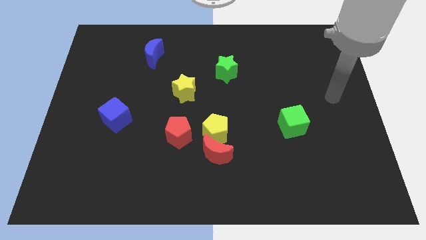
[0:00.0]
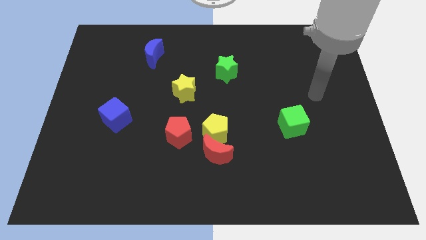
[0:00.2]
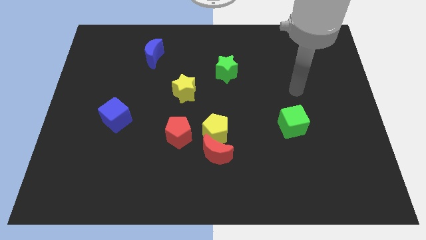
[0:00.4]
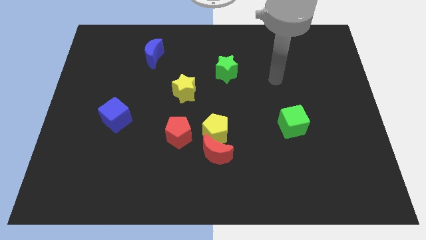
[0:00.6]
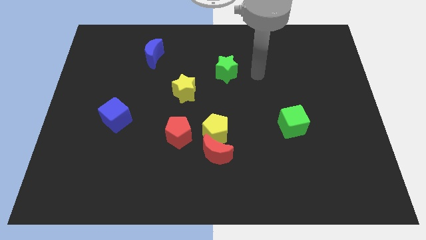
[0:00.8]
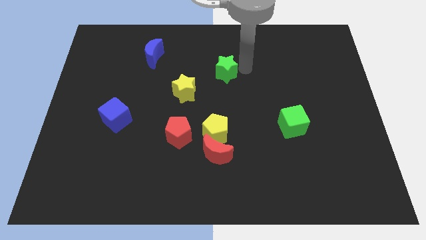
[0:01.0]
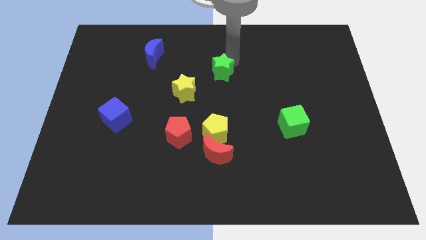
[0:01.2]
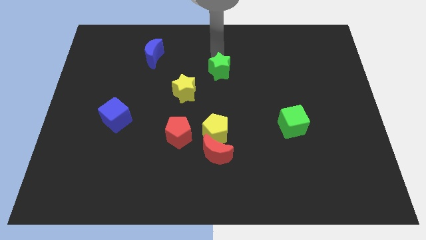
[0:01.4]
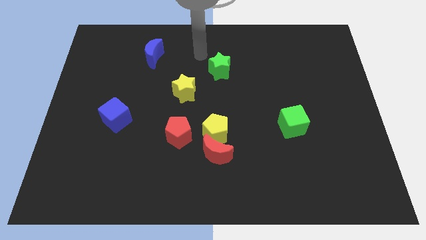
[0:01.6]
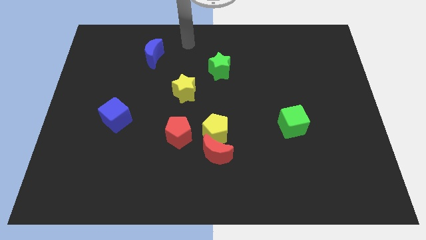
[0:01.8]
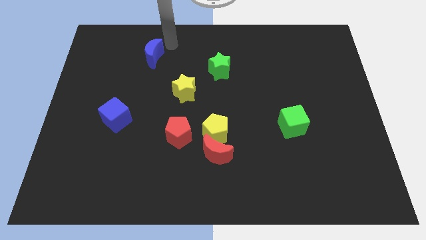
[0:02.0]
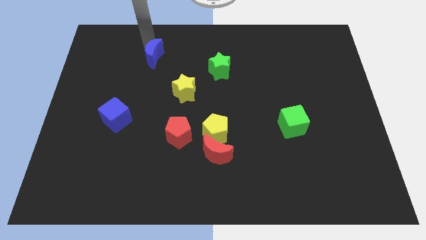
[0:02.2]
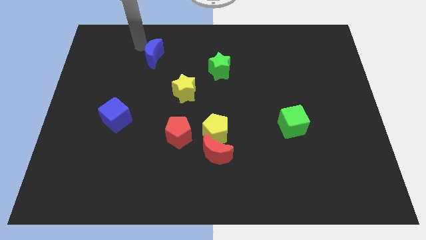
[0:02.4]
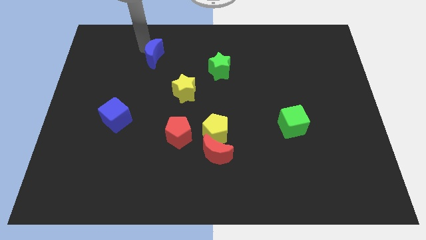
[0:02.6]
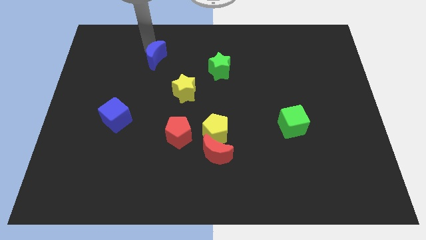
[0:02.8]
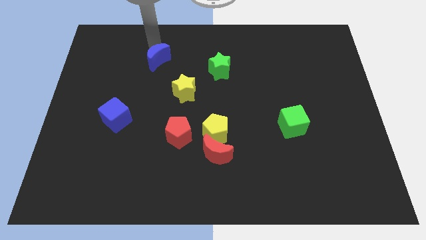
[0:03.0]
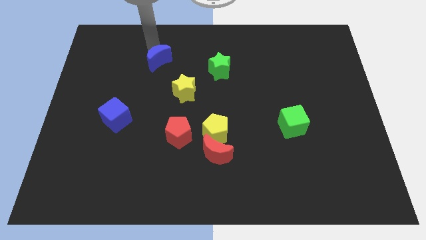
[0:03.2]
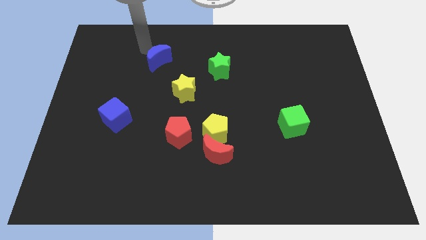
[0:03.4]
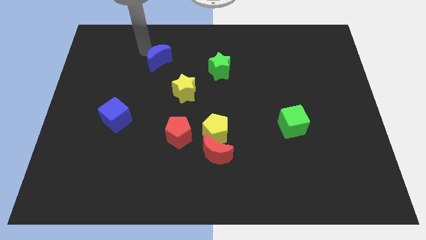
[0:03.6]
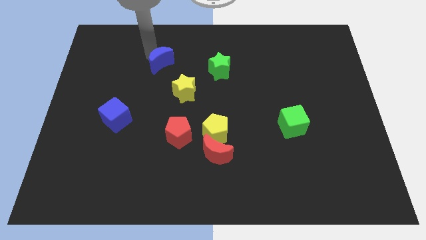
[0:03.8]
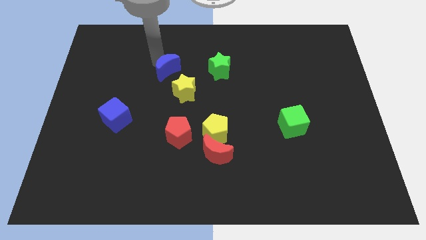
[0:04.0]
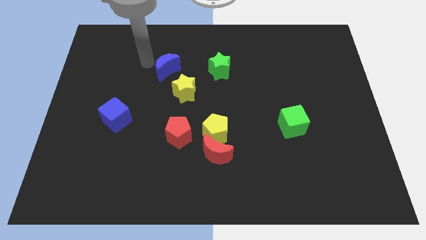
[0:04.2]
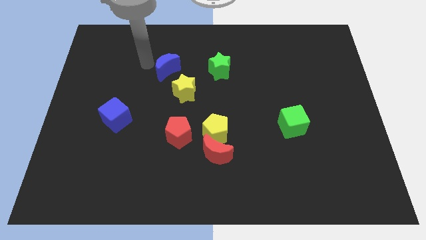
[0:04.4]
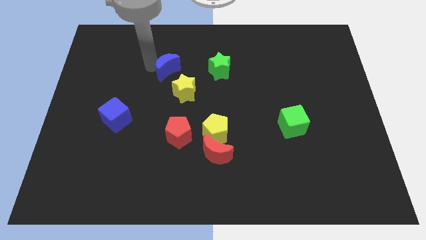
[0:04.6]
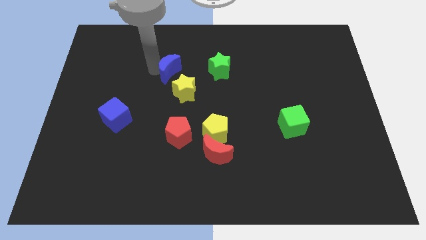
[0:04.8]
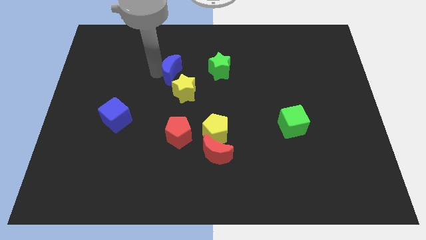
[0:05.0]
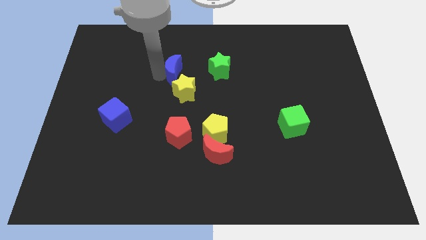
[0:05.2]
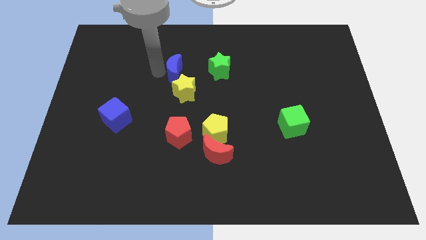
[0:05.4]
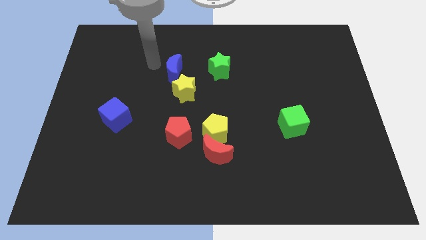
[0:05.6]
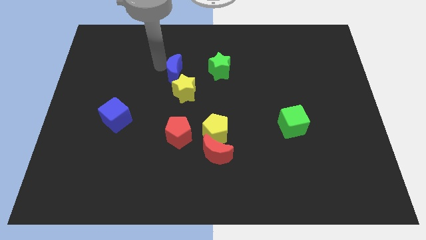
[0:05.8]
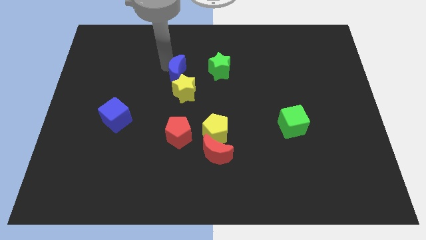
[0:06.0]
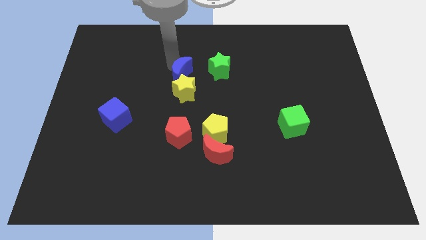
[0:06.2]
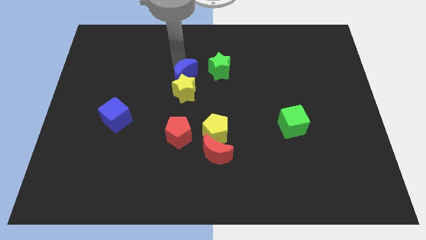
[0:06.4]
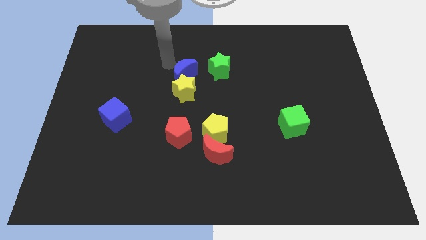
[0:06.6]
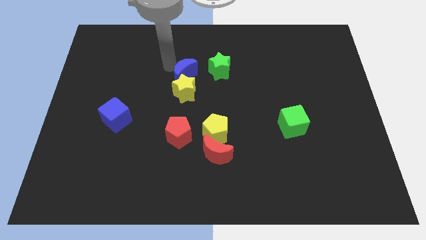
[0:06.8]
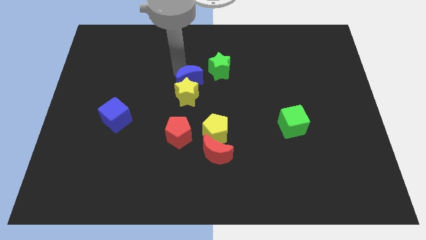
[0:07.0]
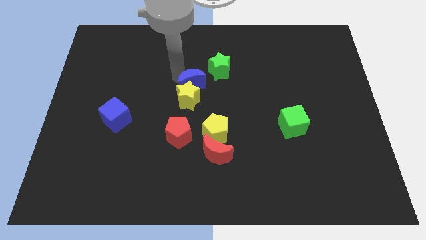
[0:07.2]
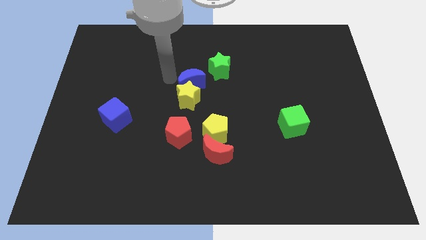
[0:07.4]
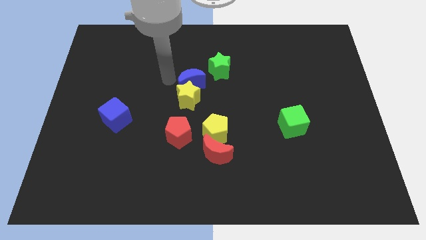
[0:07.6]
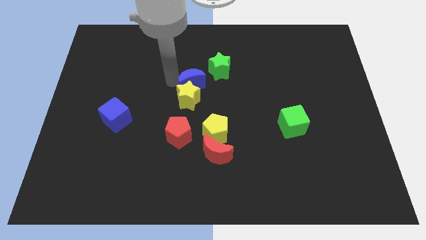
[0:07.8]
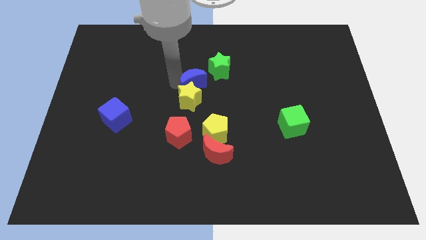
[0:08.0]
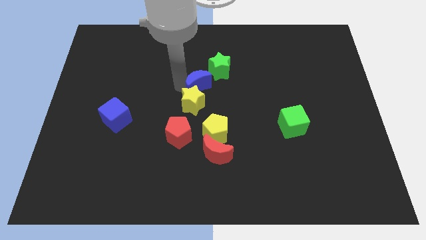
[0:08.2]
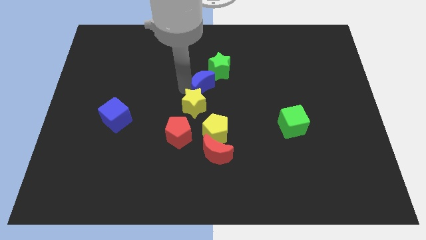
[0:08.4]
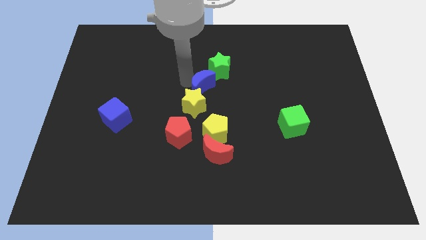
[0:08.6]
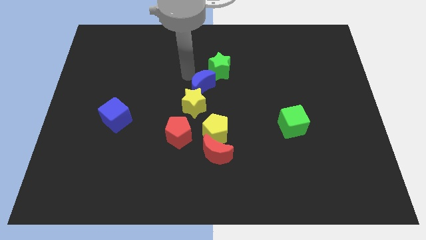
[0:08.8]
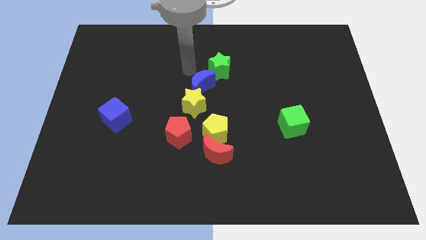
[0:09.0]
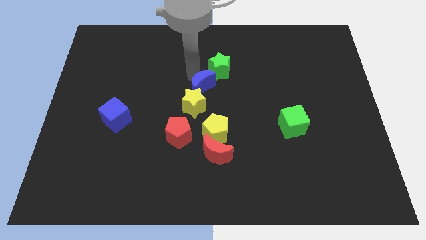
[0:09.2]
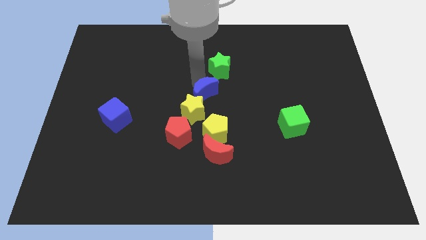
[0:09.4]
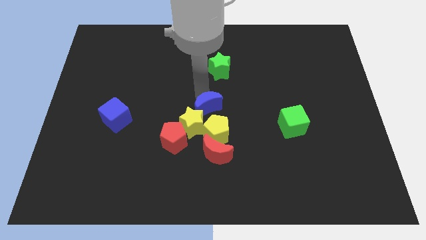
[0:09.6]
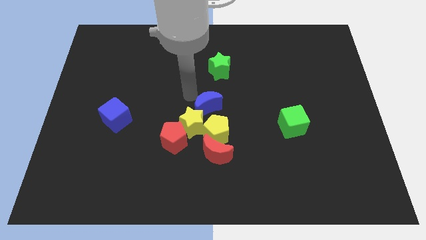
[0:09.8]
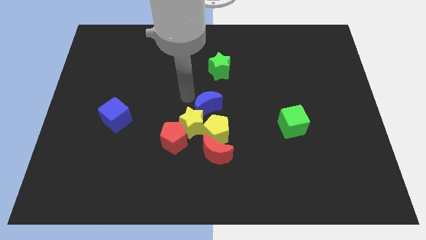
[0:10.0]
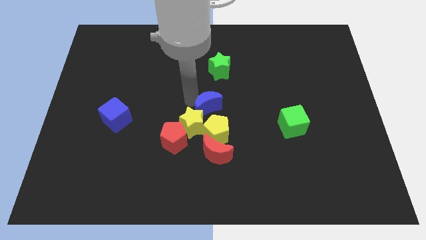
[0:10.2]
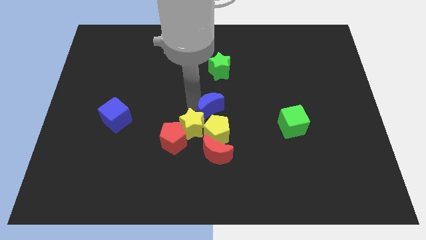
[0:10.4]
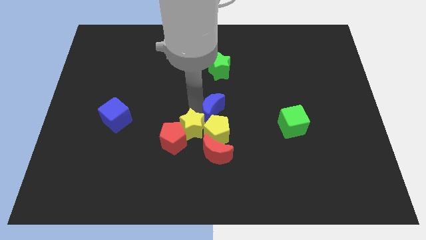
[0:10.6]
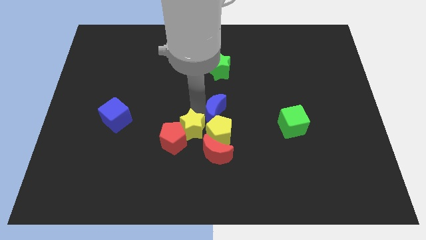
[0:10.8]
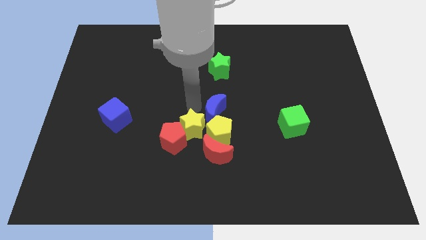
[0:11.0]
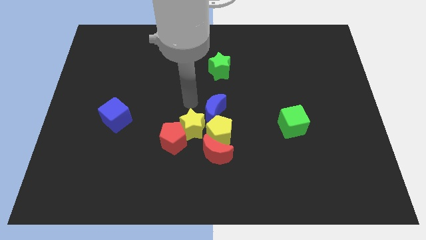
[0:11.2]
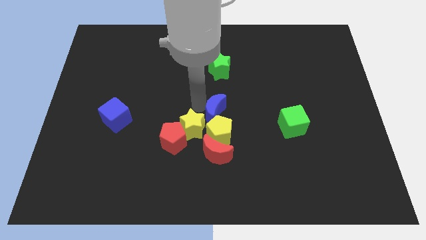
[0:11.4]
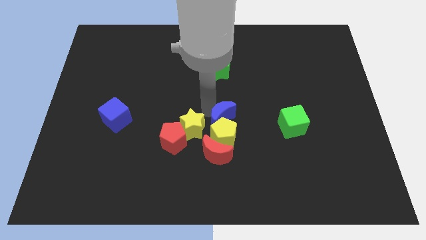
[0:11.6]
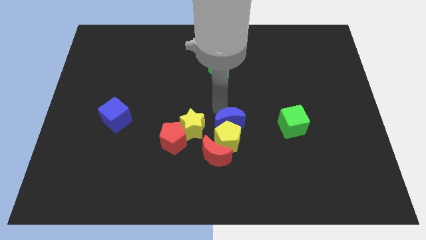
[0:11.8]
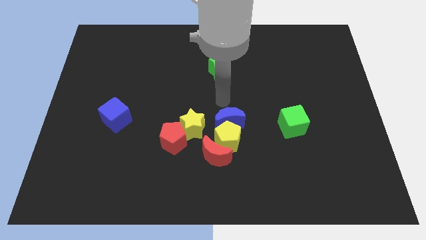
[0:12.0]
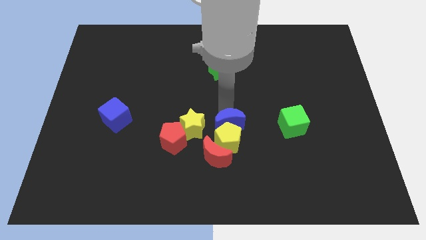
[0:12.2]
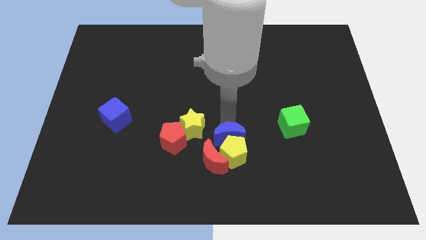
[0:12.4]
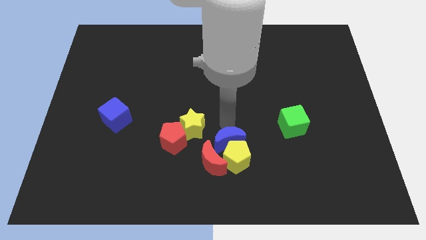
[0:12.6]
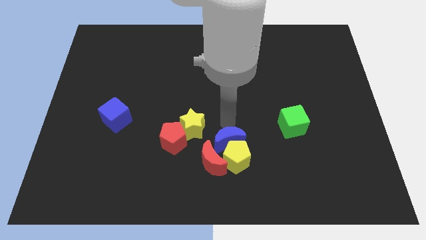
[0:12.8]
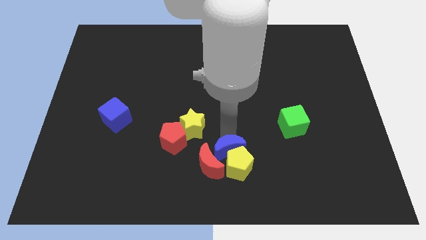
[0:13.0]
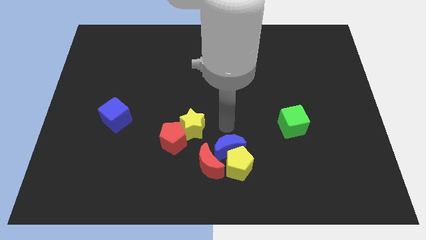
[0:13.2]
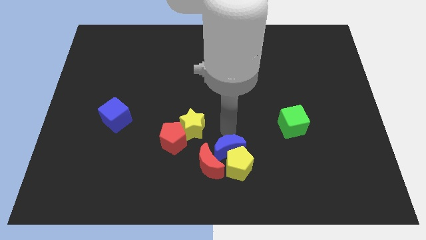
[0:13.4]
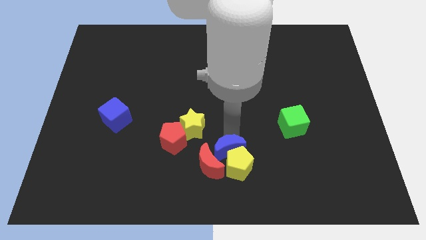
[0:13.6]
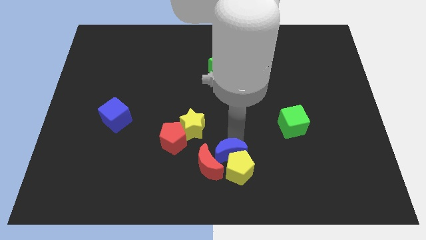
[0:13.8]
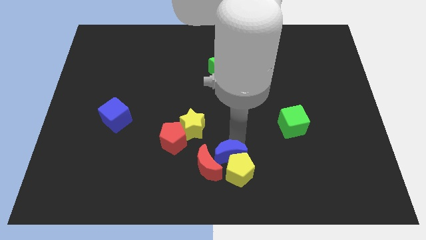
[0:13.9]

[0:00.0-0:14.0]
slide the blue moon to the bottom side

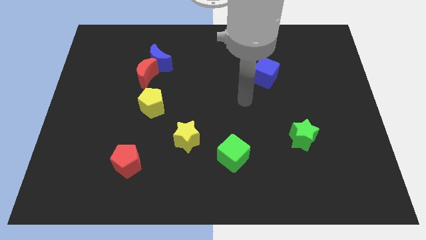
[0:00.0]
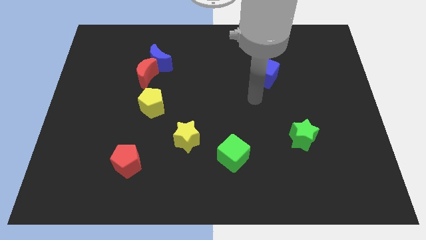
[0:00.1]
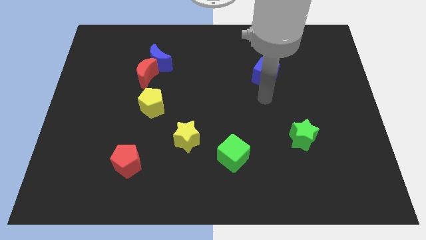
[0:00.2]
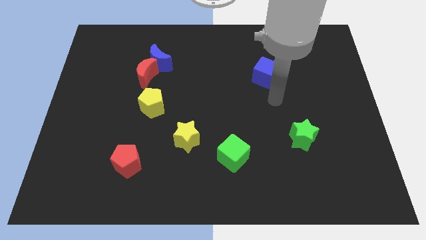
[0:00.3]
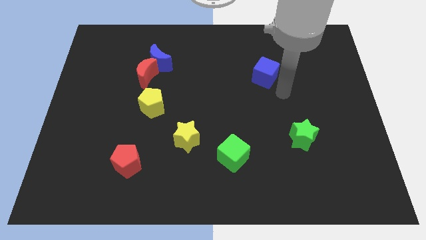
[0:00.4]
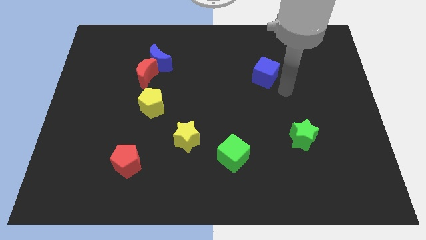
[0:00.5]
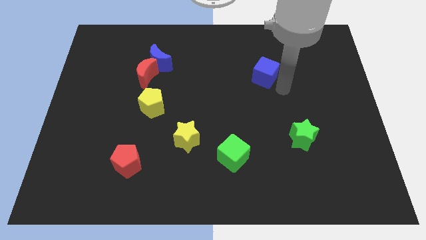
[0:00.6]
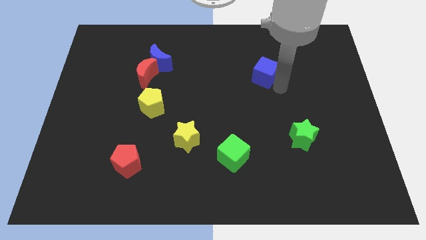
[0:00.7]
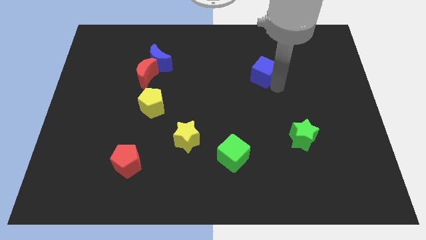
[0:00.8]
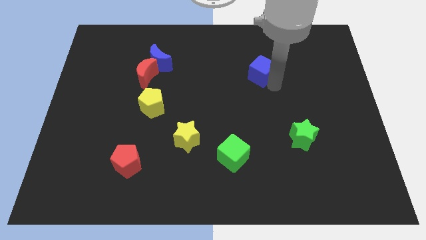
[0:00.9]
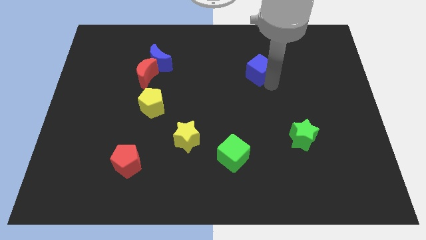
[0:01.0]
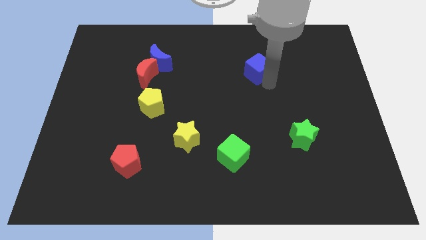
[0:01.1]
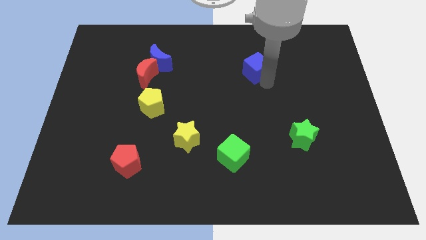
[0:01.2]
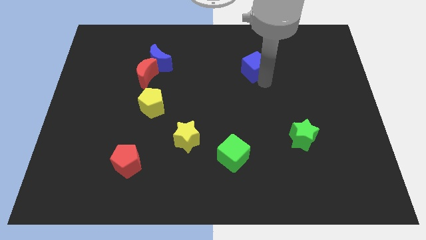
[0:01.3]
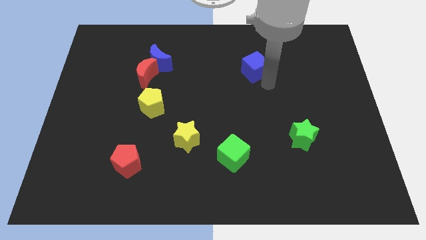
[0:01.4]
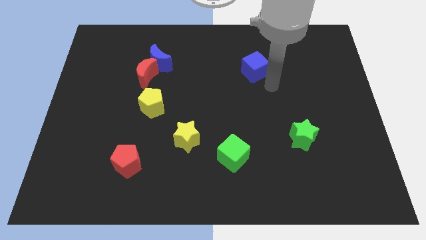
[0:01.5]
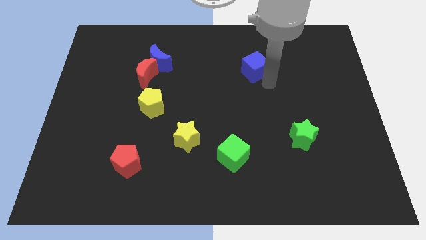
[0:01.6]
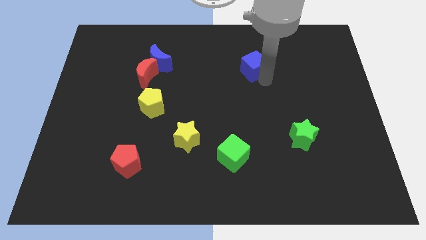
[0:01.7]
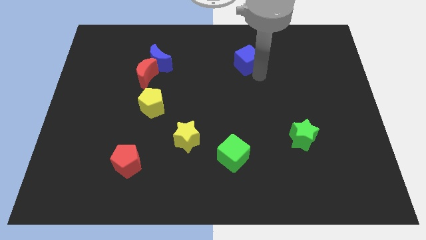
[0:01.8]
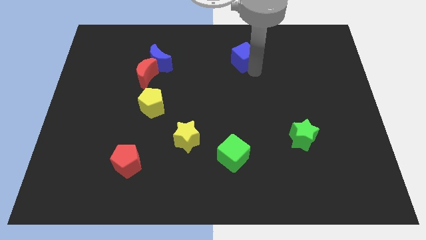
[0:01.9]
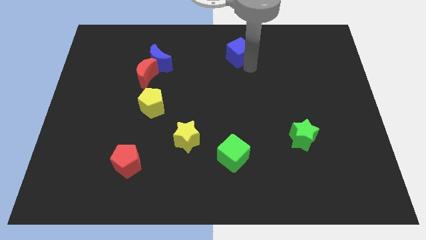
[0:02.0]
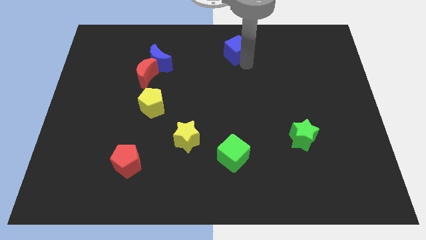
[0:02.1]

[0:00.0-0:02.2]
push the blue cube to the top side
